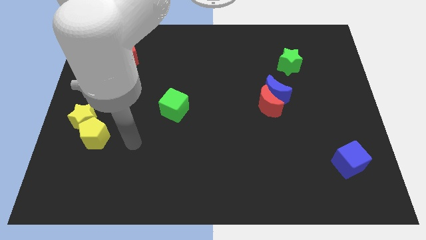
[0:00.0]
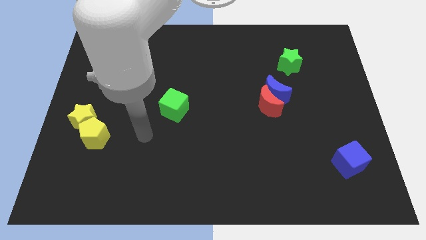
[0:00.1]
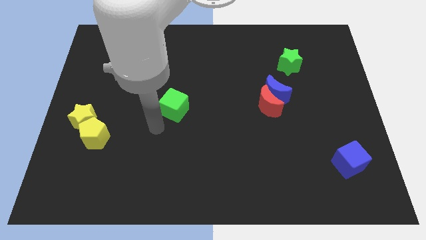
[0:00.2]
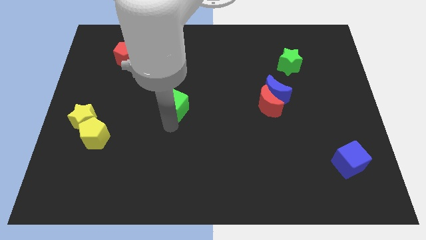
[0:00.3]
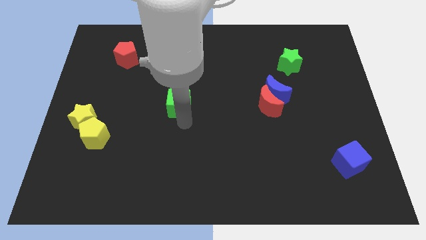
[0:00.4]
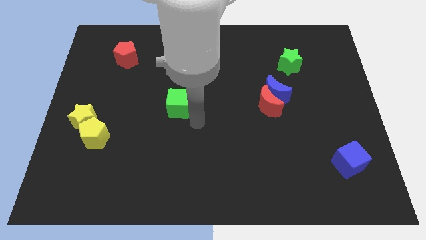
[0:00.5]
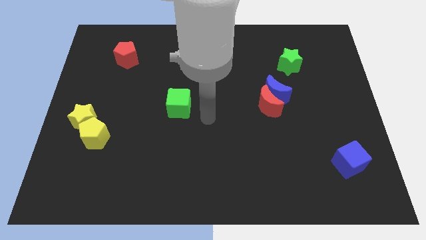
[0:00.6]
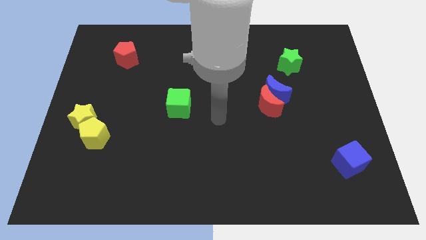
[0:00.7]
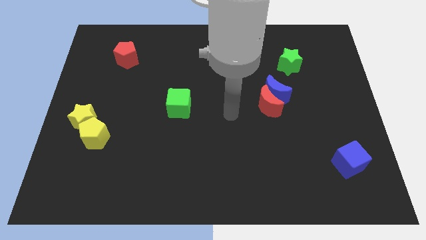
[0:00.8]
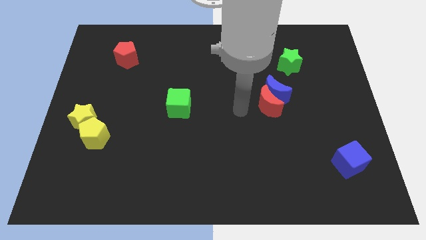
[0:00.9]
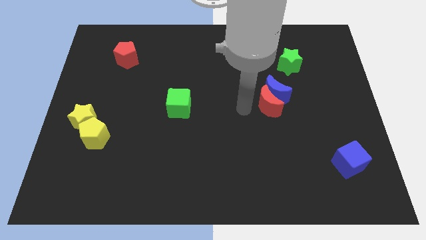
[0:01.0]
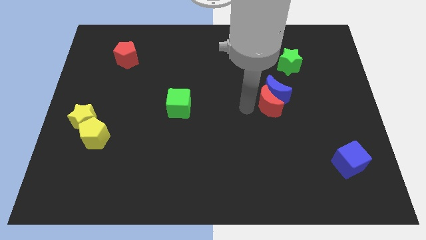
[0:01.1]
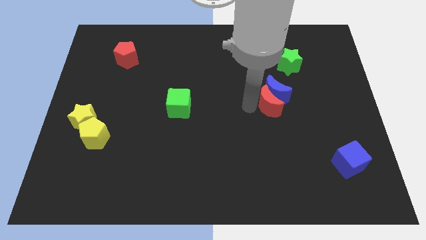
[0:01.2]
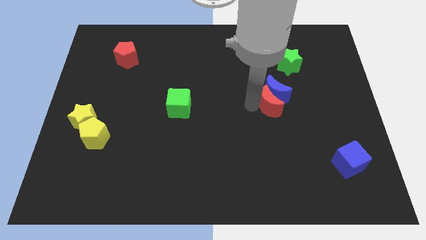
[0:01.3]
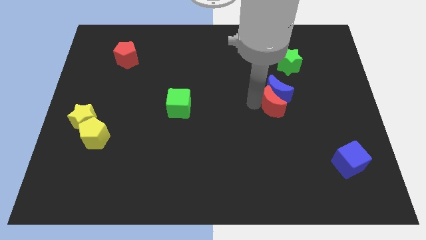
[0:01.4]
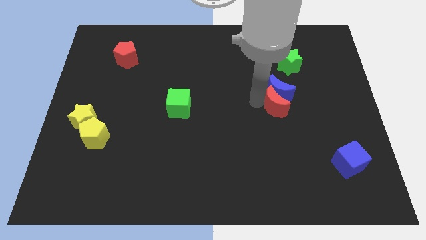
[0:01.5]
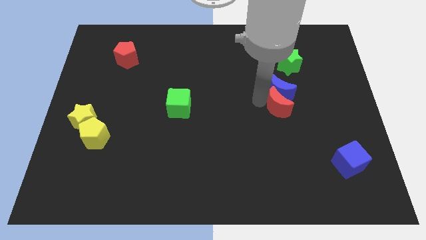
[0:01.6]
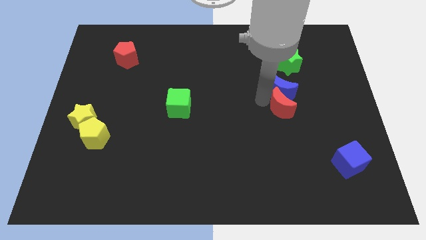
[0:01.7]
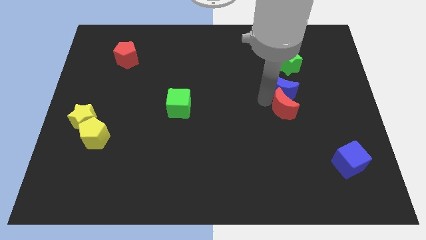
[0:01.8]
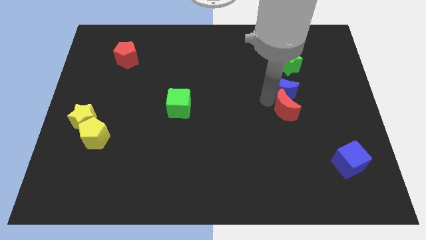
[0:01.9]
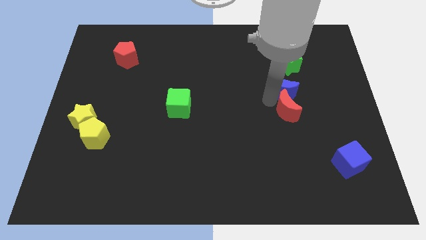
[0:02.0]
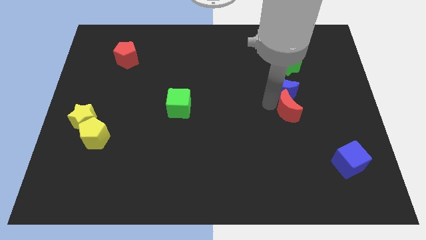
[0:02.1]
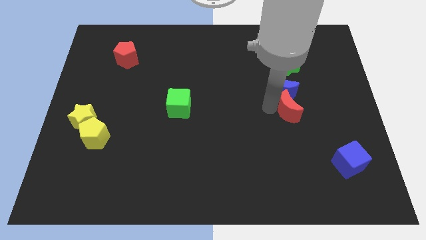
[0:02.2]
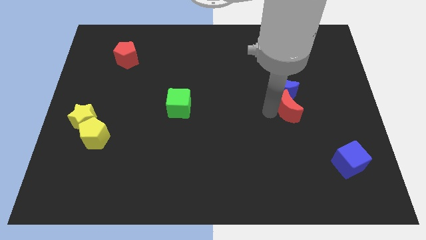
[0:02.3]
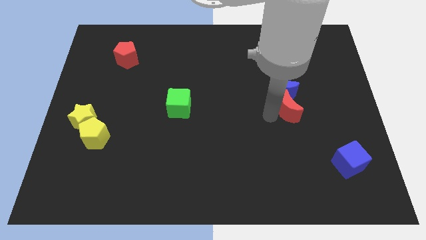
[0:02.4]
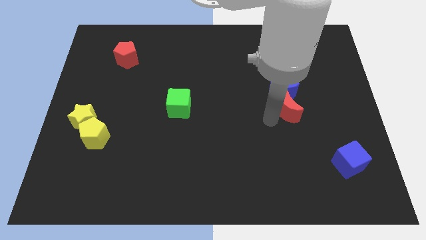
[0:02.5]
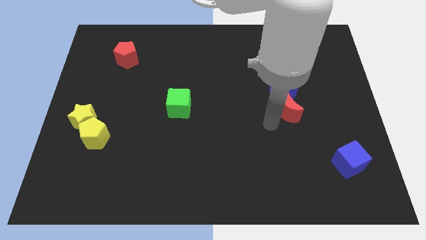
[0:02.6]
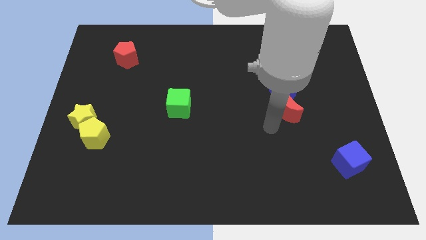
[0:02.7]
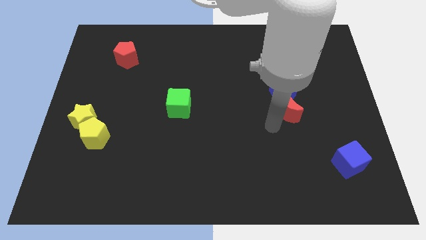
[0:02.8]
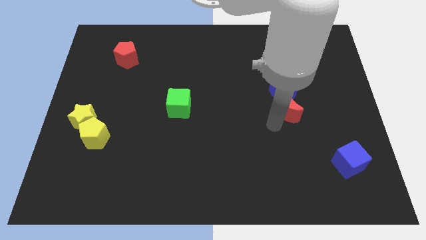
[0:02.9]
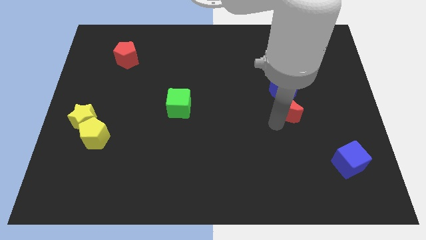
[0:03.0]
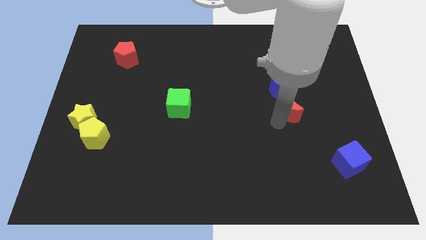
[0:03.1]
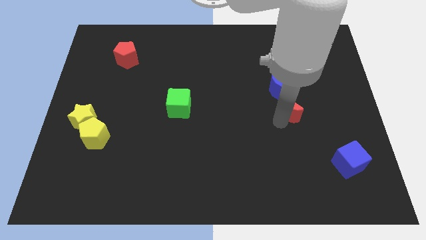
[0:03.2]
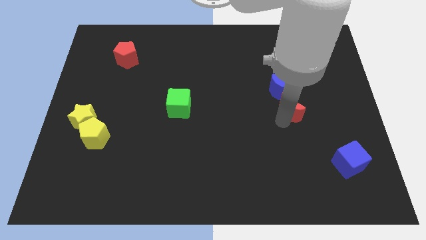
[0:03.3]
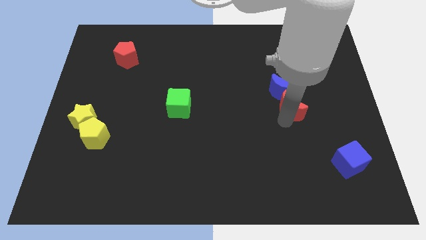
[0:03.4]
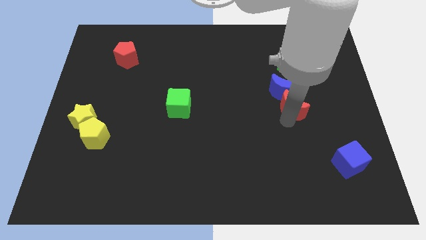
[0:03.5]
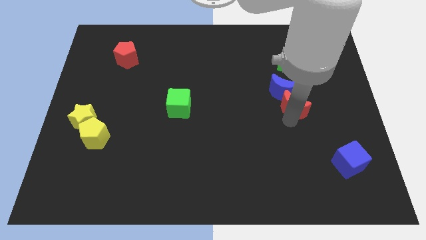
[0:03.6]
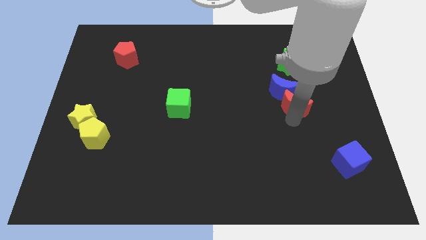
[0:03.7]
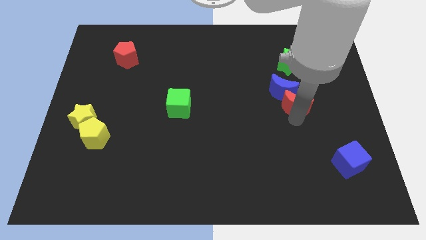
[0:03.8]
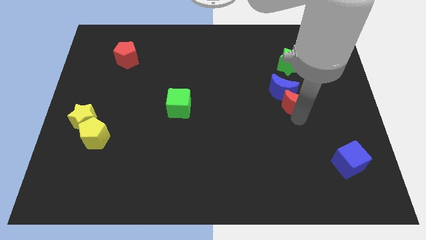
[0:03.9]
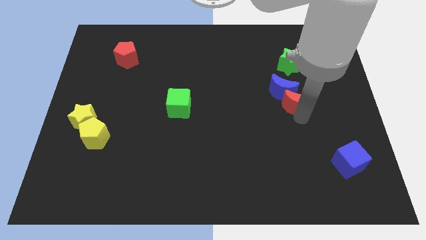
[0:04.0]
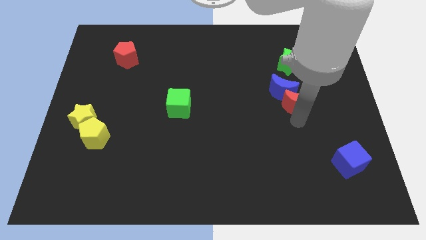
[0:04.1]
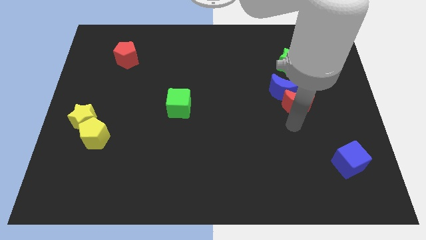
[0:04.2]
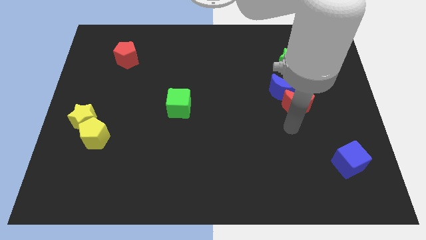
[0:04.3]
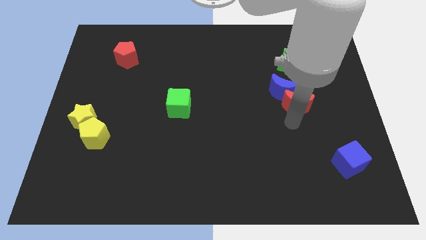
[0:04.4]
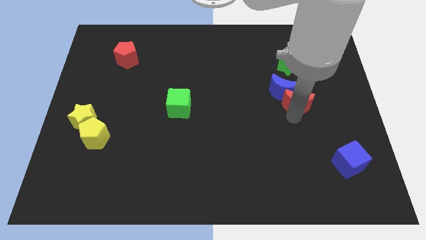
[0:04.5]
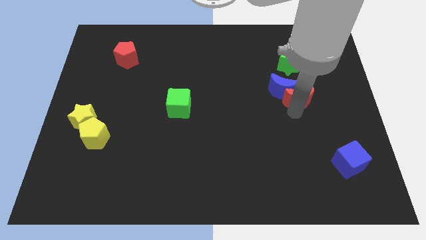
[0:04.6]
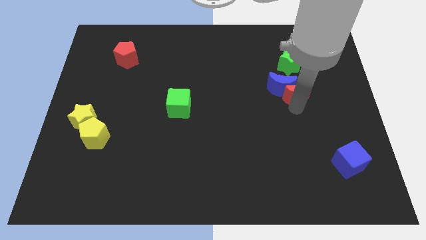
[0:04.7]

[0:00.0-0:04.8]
move the red moon slightly upwards and right diagonally

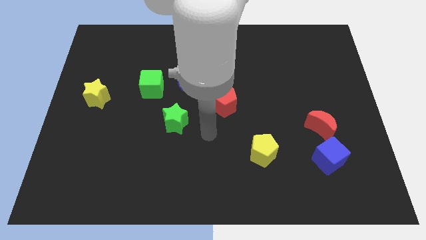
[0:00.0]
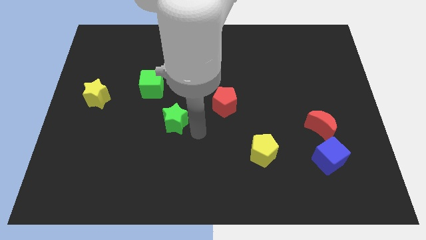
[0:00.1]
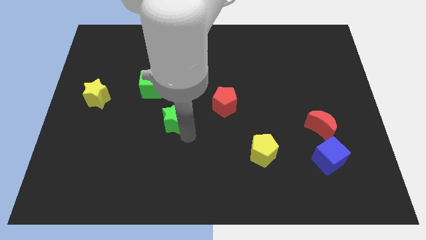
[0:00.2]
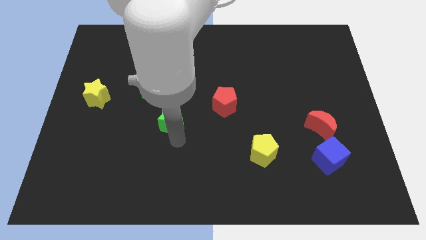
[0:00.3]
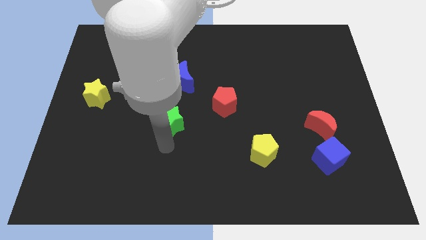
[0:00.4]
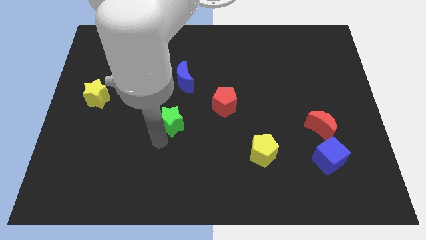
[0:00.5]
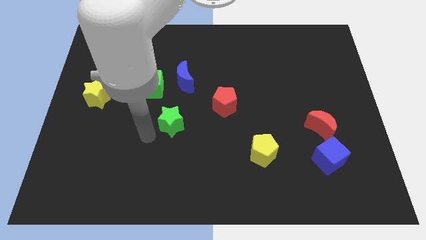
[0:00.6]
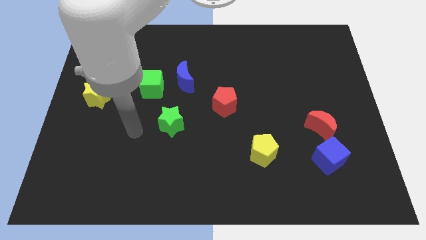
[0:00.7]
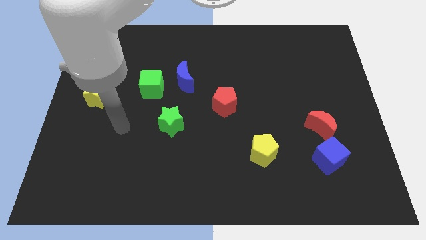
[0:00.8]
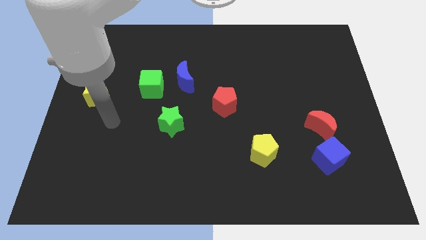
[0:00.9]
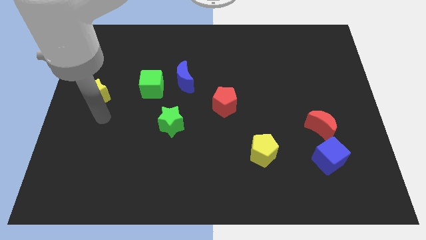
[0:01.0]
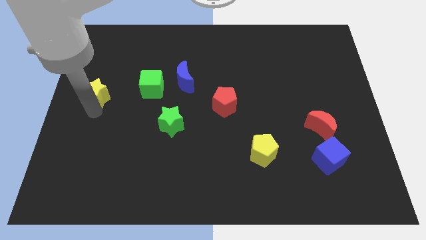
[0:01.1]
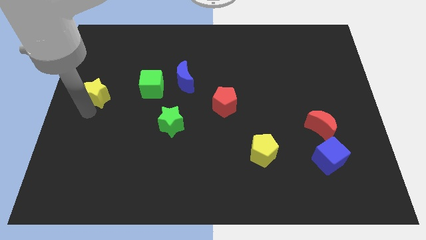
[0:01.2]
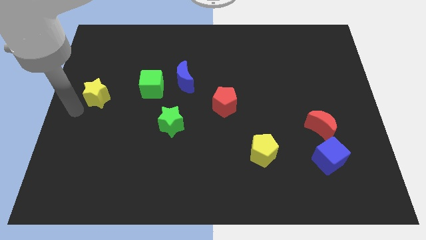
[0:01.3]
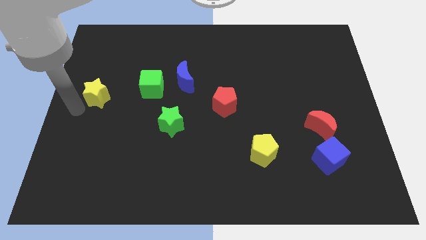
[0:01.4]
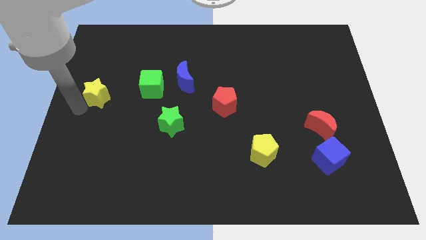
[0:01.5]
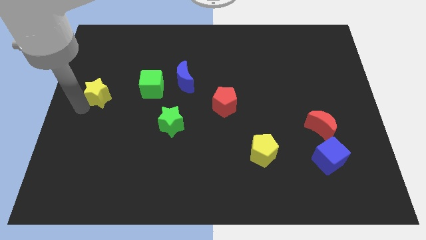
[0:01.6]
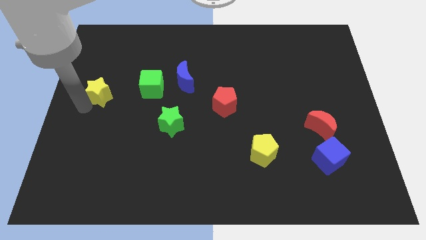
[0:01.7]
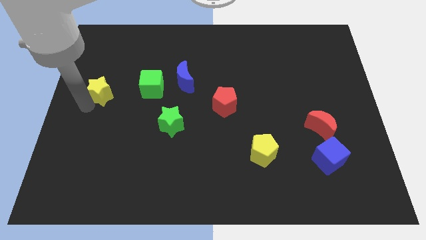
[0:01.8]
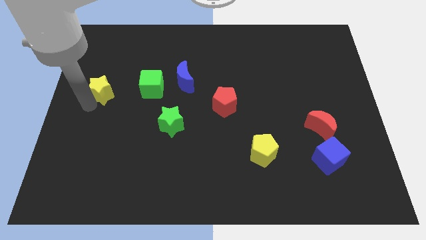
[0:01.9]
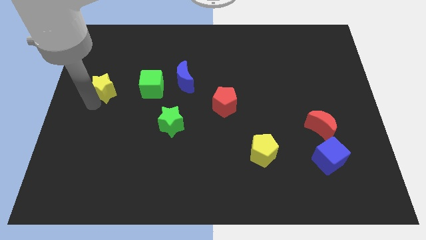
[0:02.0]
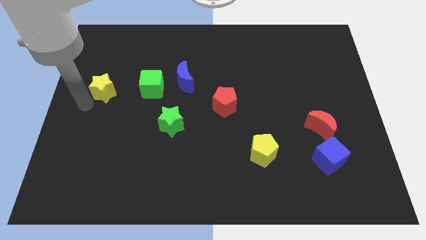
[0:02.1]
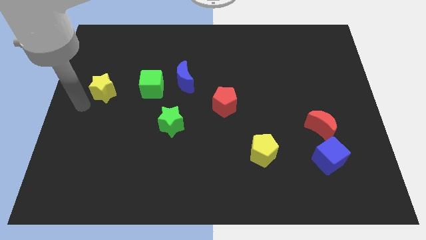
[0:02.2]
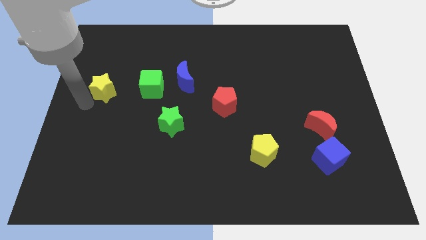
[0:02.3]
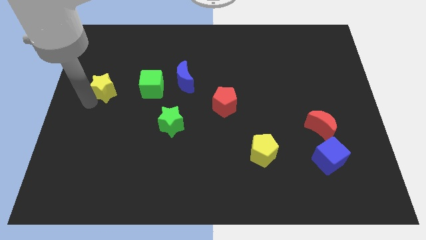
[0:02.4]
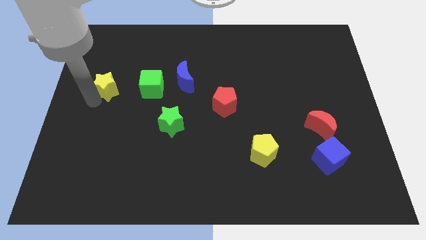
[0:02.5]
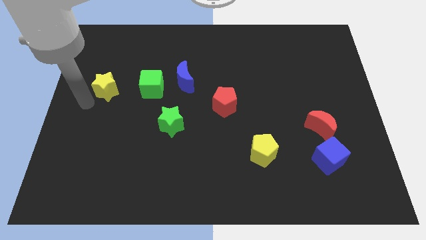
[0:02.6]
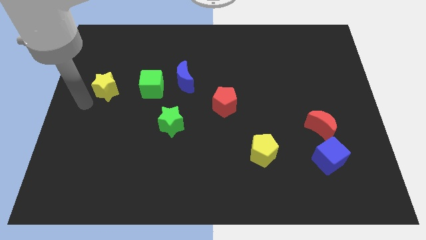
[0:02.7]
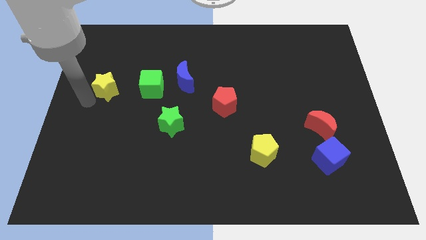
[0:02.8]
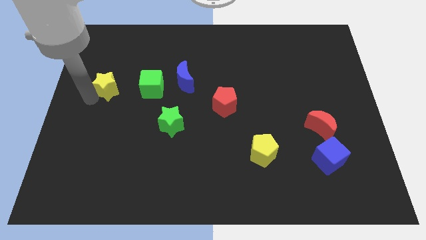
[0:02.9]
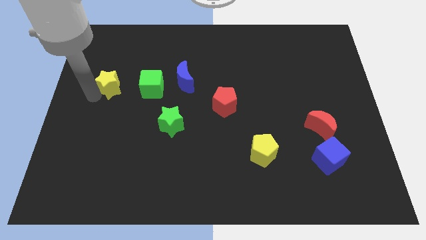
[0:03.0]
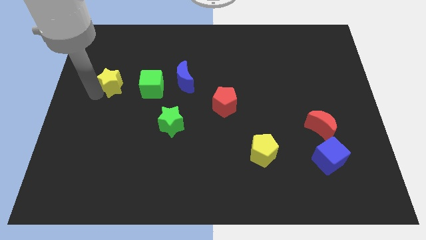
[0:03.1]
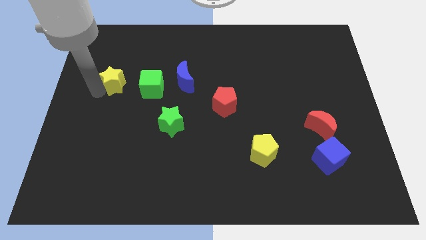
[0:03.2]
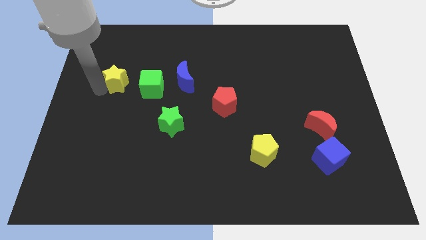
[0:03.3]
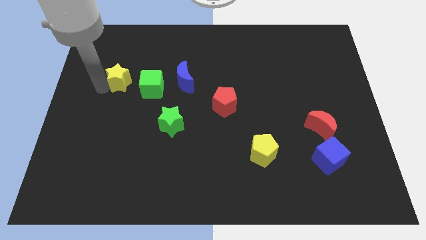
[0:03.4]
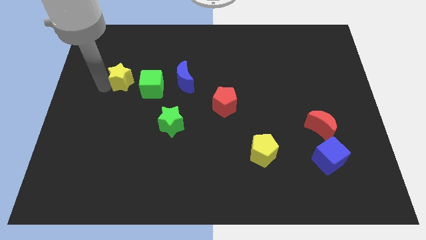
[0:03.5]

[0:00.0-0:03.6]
slide the yellow star diagonally upwards and to the right a little bit
